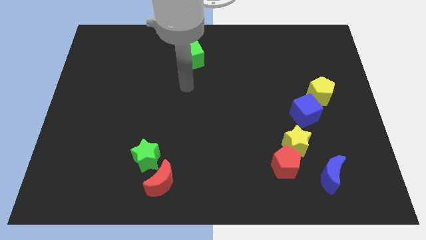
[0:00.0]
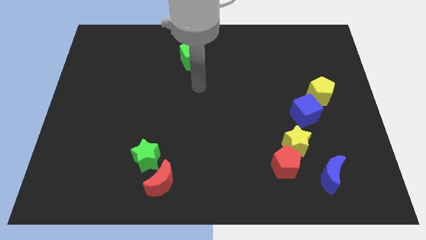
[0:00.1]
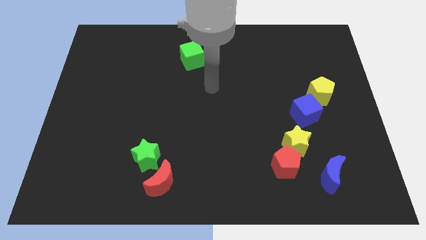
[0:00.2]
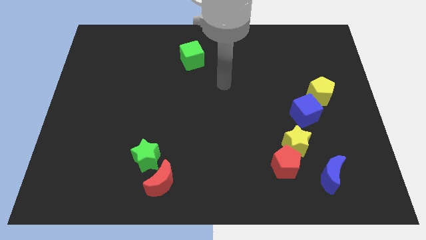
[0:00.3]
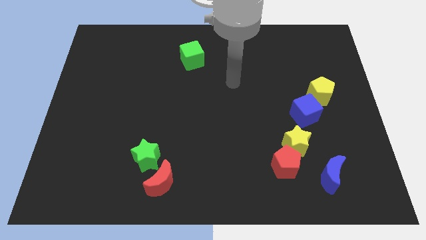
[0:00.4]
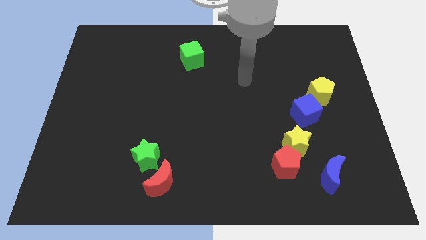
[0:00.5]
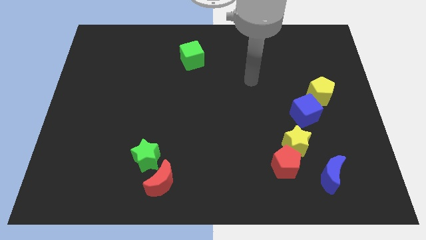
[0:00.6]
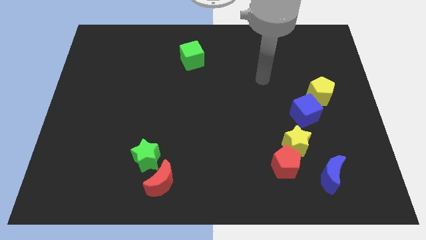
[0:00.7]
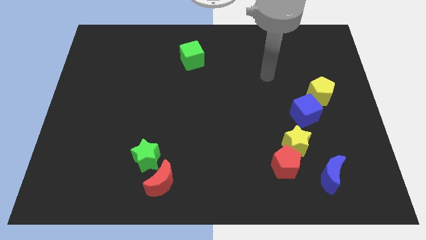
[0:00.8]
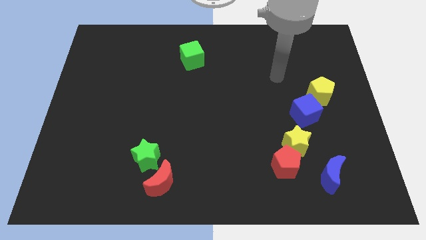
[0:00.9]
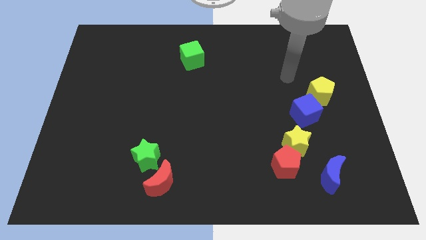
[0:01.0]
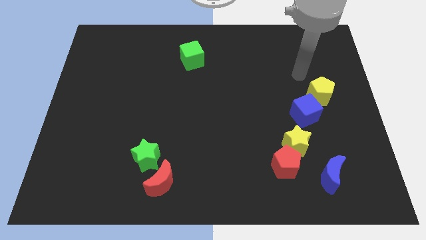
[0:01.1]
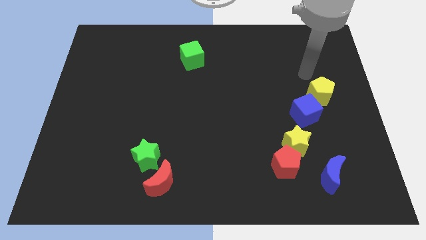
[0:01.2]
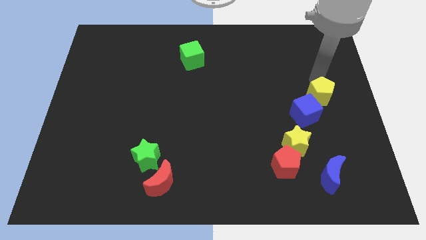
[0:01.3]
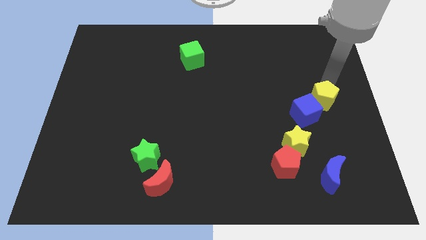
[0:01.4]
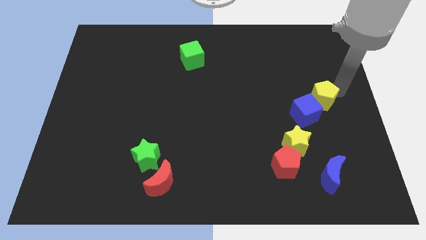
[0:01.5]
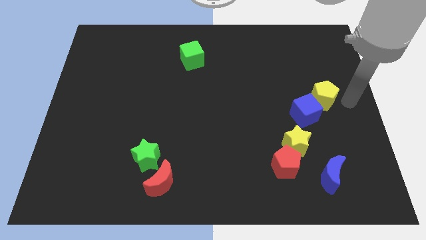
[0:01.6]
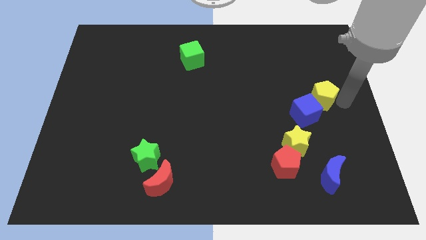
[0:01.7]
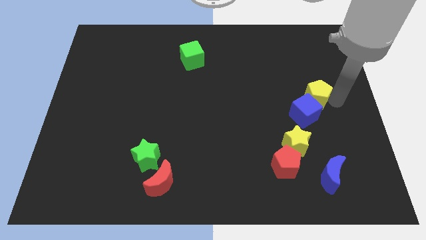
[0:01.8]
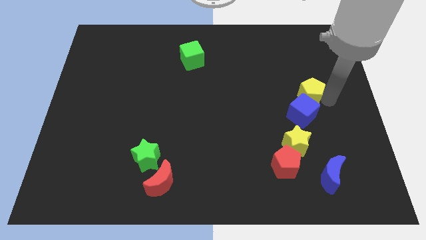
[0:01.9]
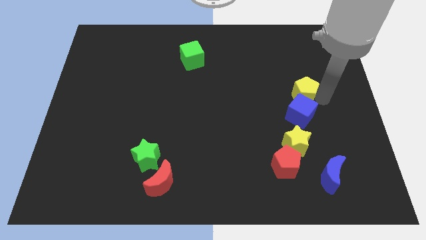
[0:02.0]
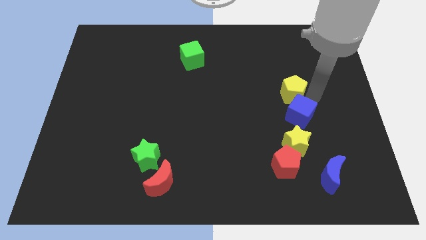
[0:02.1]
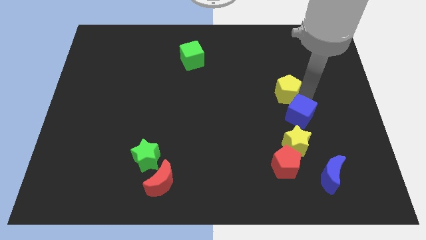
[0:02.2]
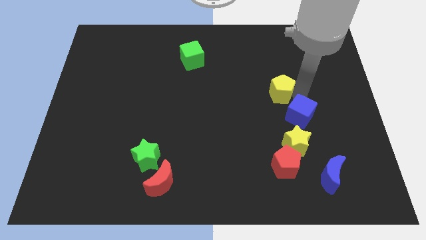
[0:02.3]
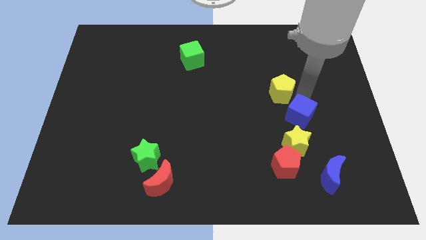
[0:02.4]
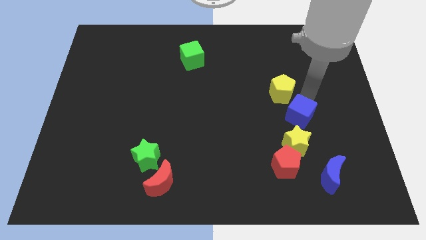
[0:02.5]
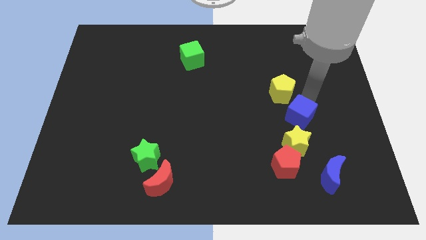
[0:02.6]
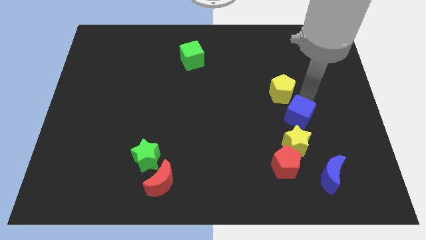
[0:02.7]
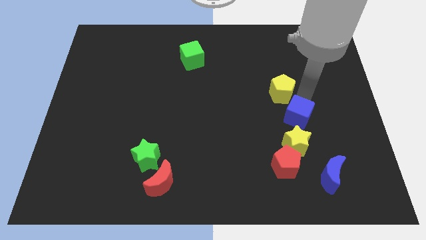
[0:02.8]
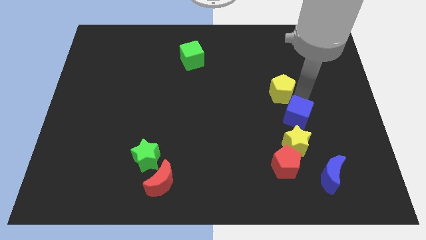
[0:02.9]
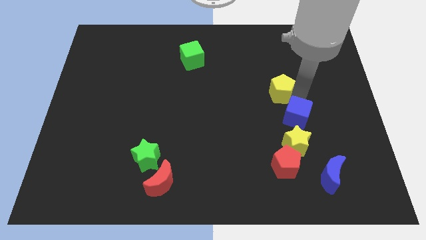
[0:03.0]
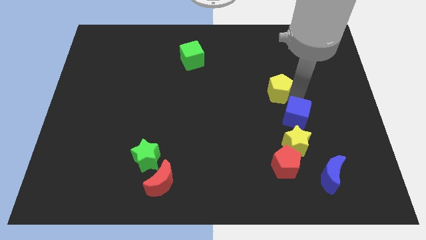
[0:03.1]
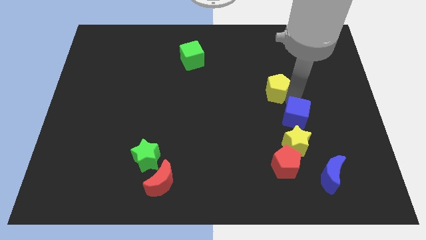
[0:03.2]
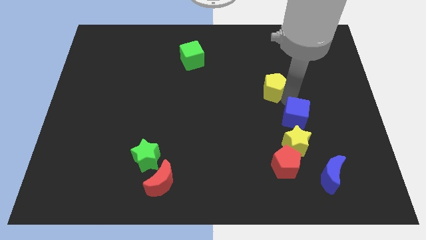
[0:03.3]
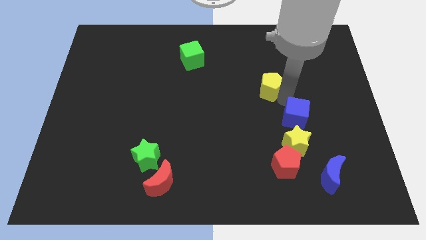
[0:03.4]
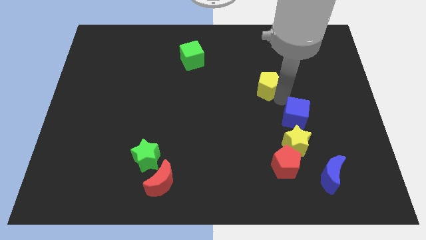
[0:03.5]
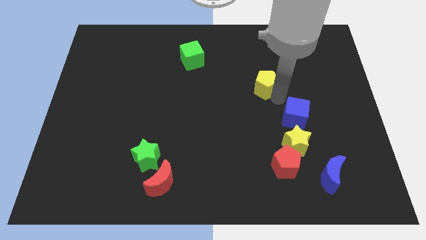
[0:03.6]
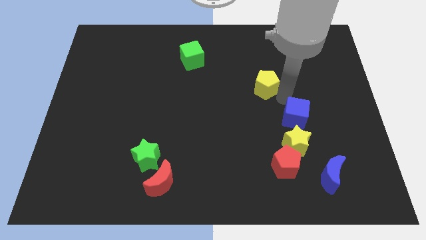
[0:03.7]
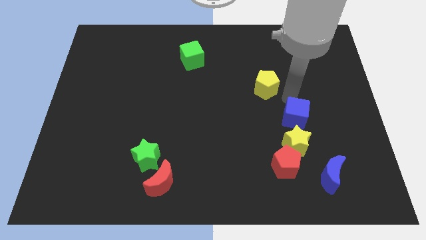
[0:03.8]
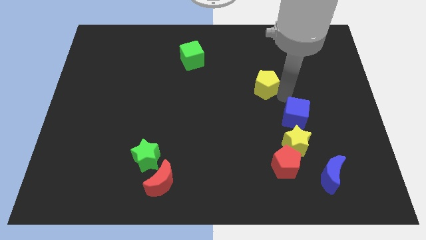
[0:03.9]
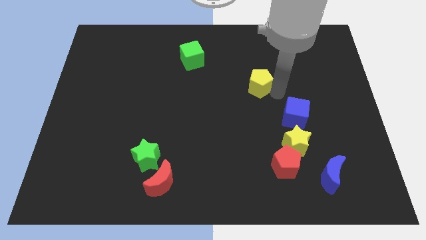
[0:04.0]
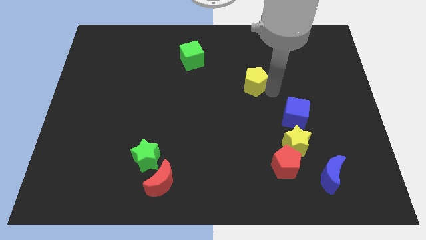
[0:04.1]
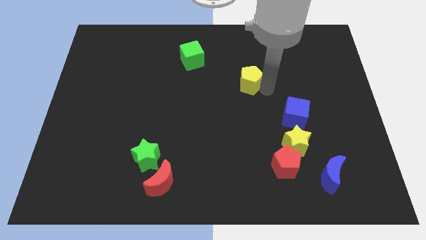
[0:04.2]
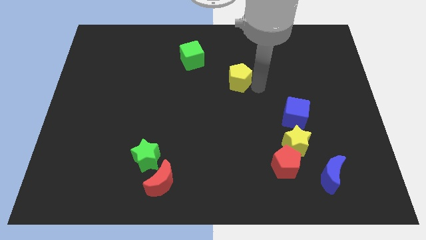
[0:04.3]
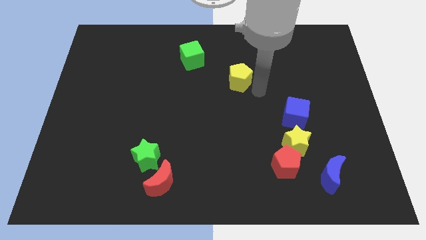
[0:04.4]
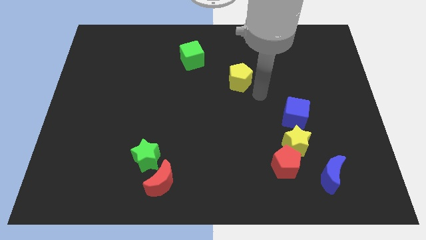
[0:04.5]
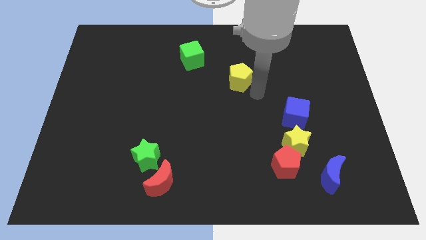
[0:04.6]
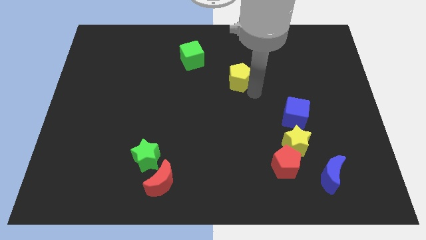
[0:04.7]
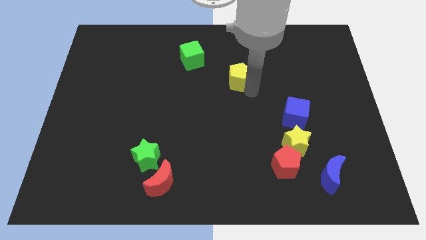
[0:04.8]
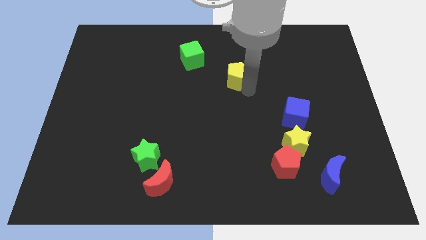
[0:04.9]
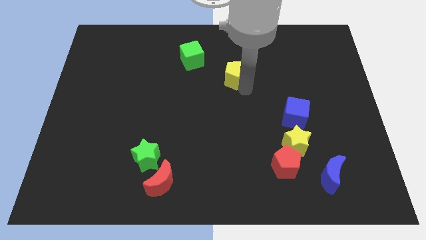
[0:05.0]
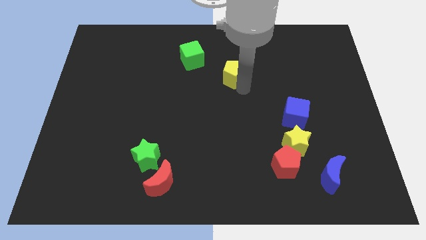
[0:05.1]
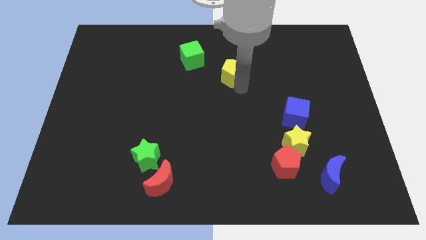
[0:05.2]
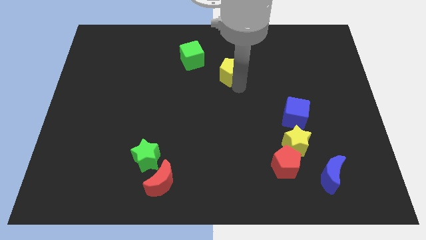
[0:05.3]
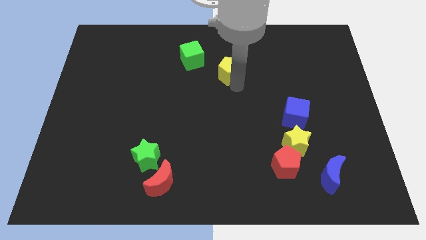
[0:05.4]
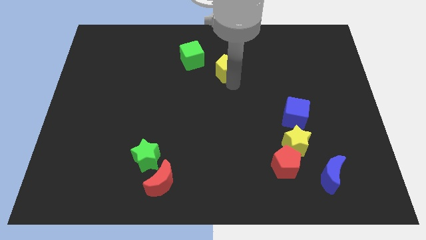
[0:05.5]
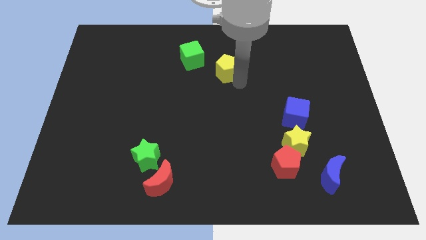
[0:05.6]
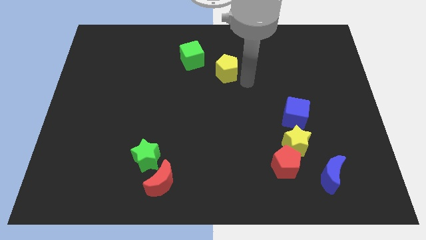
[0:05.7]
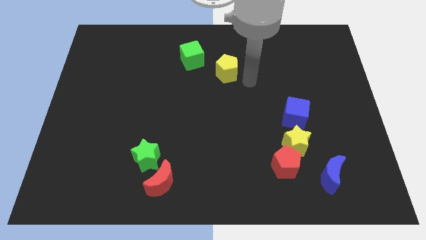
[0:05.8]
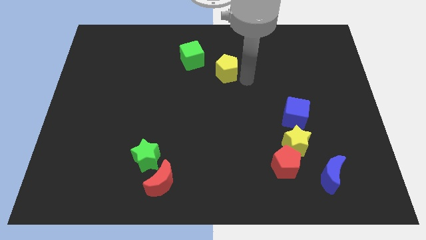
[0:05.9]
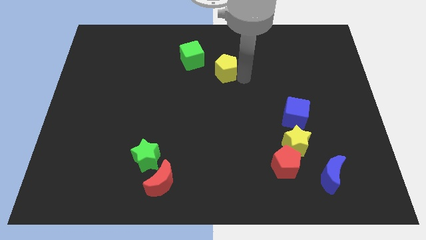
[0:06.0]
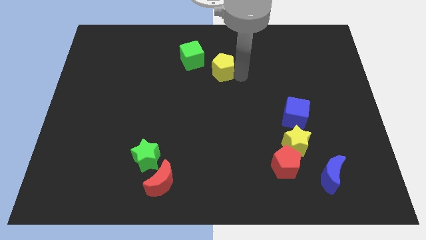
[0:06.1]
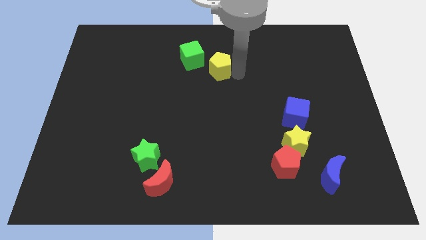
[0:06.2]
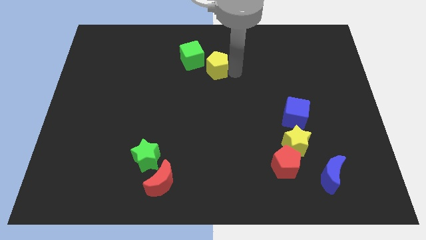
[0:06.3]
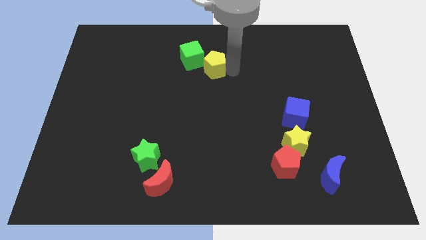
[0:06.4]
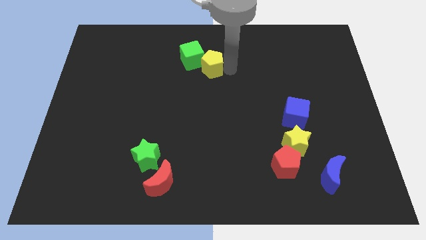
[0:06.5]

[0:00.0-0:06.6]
slide the yellow pentagon towards the green cube

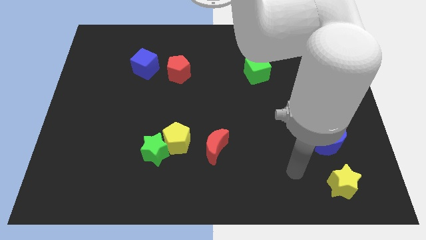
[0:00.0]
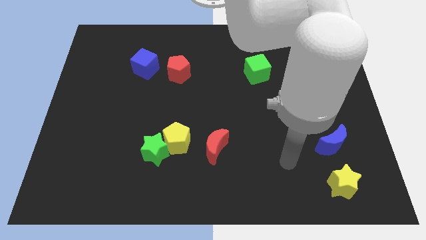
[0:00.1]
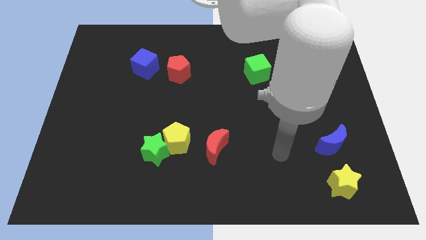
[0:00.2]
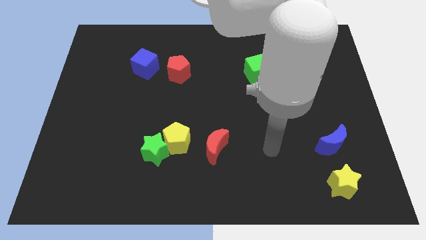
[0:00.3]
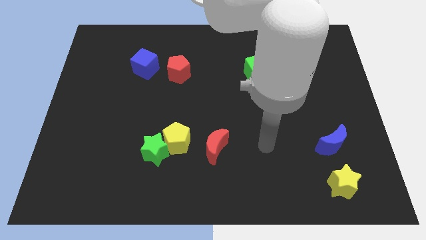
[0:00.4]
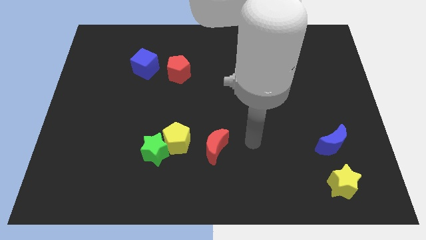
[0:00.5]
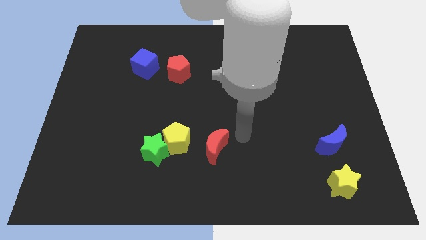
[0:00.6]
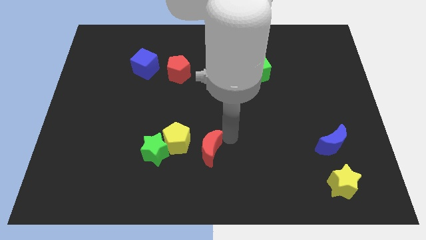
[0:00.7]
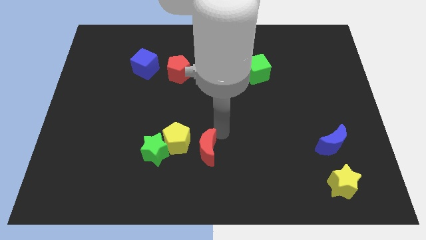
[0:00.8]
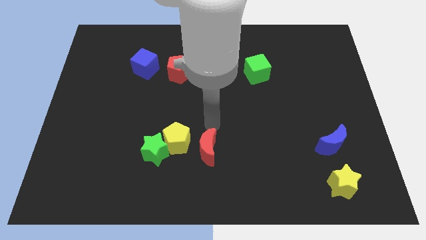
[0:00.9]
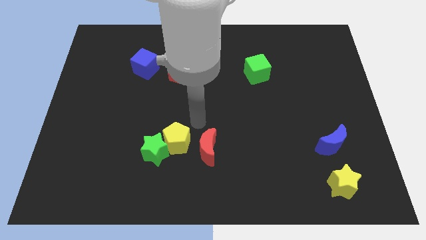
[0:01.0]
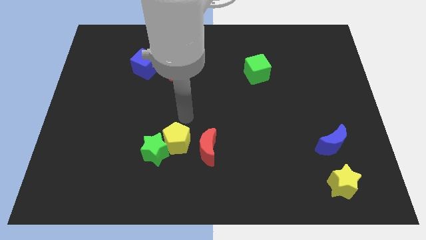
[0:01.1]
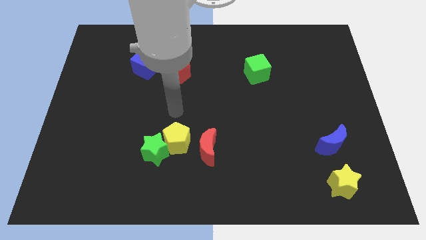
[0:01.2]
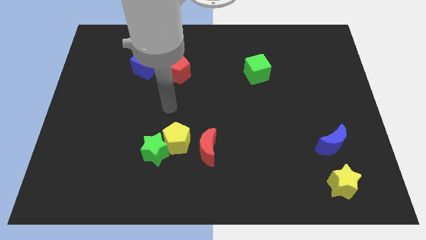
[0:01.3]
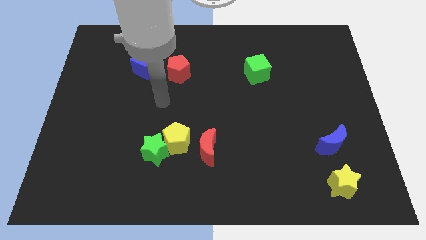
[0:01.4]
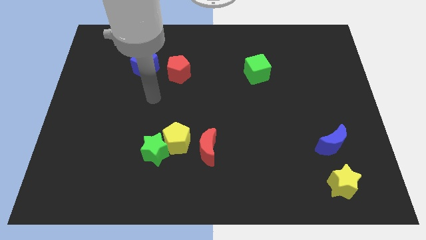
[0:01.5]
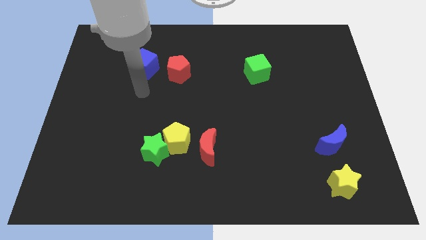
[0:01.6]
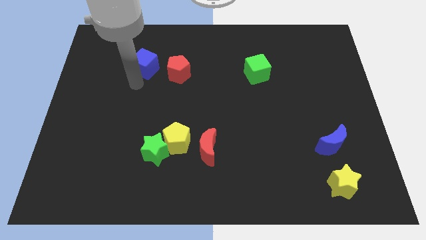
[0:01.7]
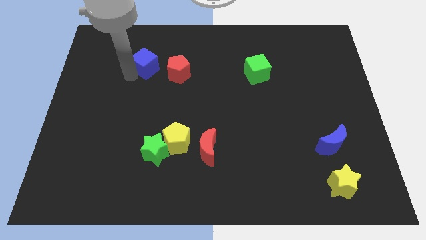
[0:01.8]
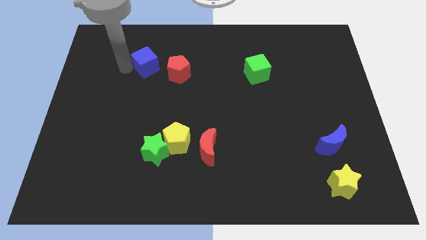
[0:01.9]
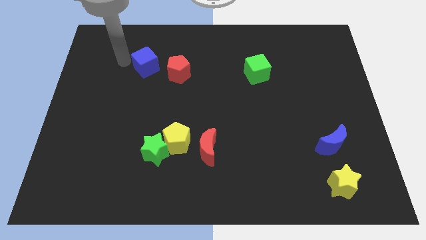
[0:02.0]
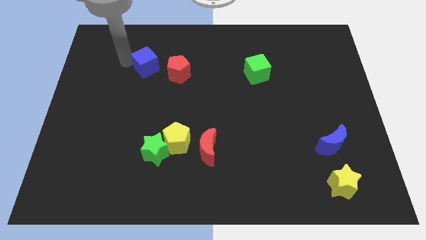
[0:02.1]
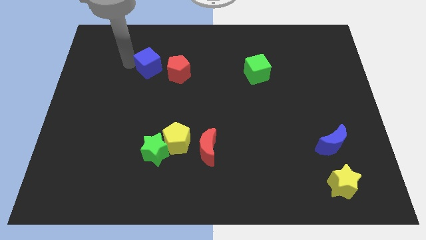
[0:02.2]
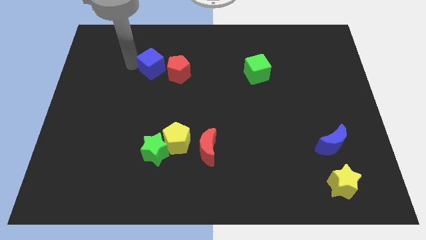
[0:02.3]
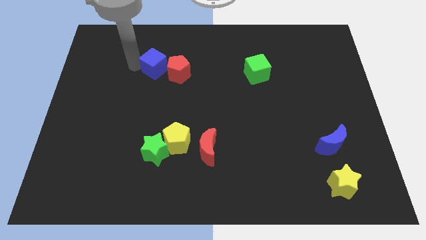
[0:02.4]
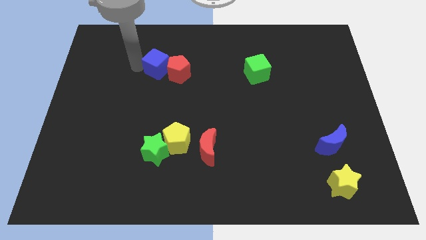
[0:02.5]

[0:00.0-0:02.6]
move the blue cube close to the red pentagon
